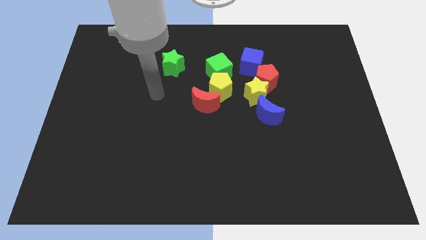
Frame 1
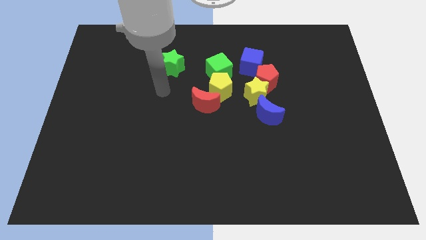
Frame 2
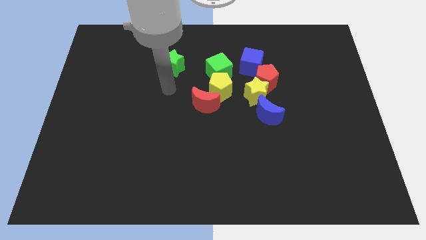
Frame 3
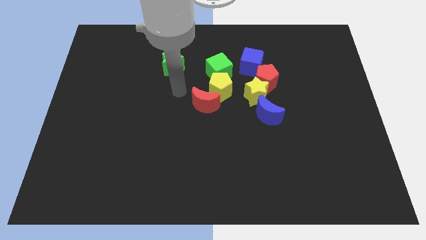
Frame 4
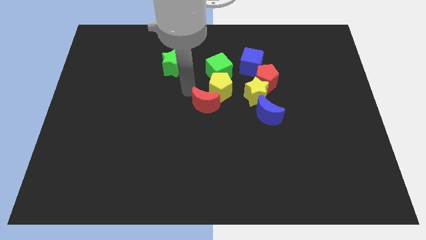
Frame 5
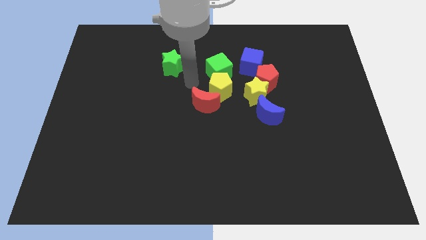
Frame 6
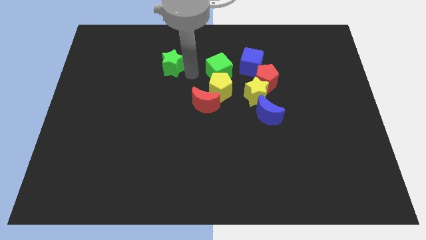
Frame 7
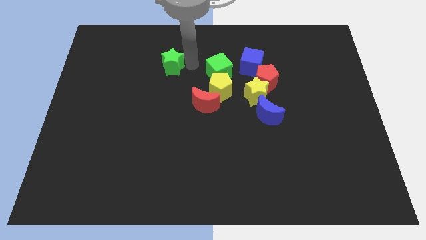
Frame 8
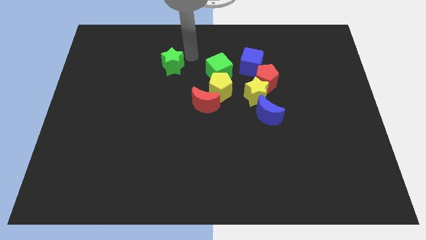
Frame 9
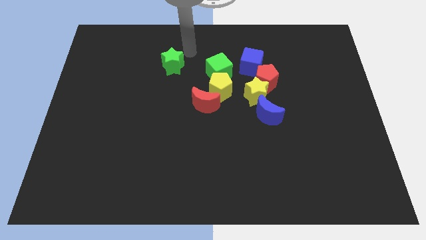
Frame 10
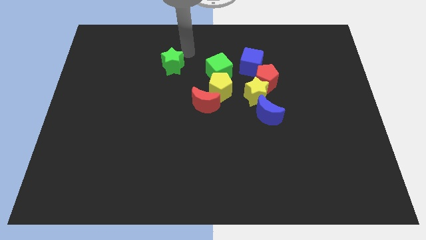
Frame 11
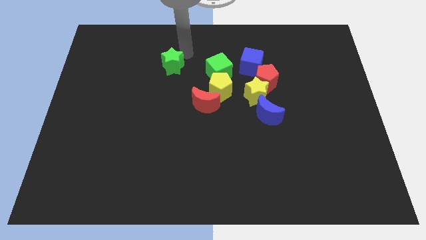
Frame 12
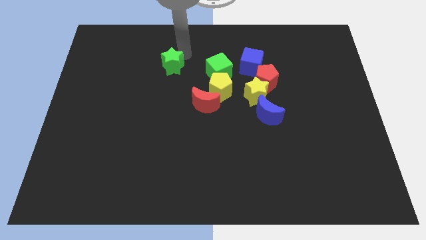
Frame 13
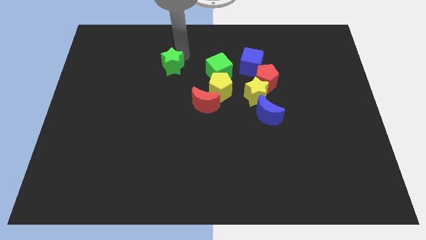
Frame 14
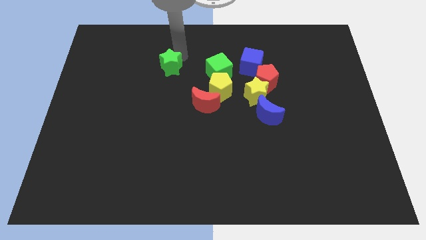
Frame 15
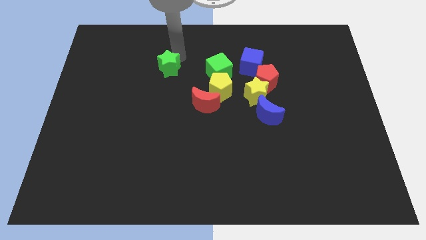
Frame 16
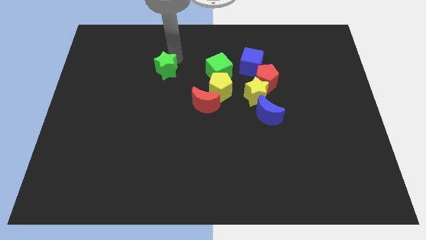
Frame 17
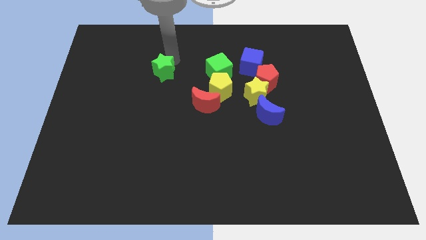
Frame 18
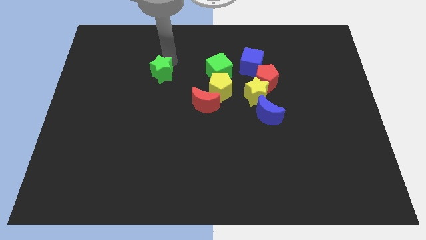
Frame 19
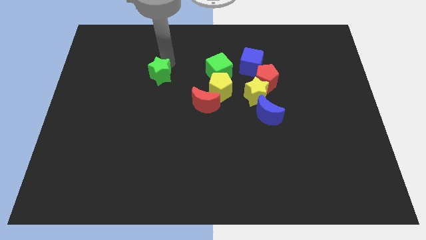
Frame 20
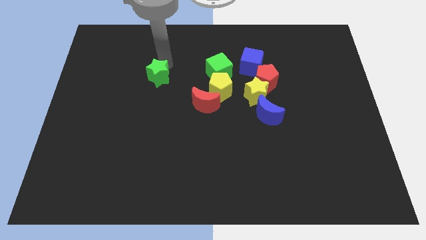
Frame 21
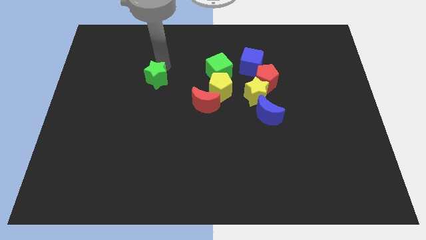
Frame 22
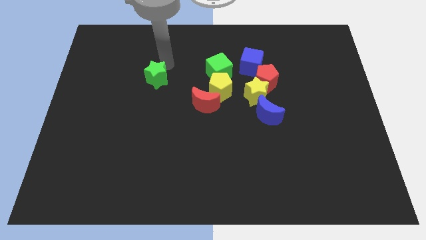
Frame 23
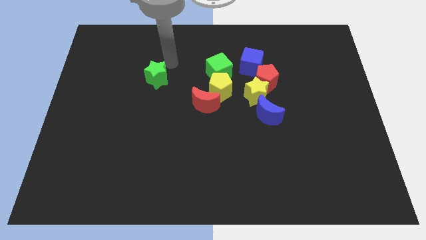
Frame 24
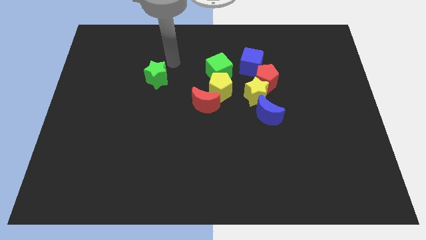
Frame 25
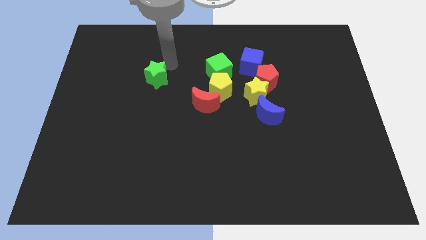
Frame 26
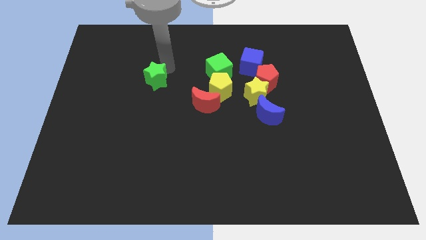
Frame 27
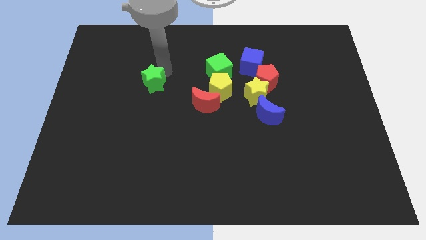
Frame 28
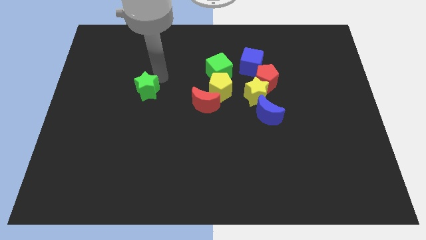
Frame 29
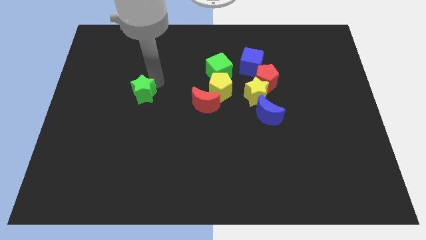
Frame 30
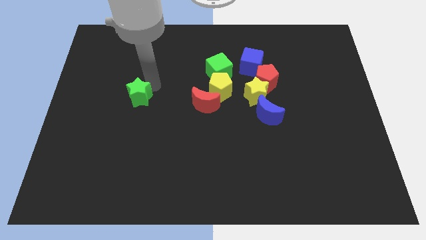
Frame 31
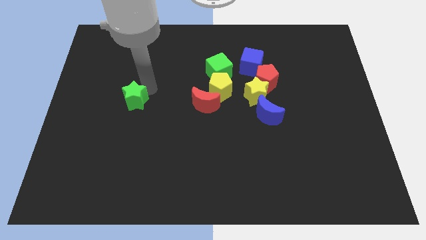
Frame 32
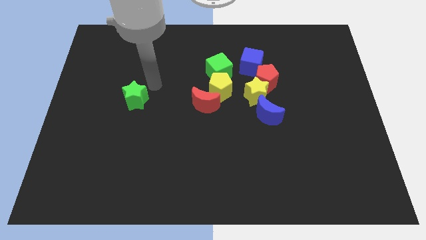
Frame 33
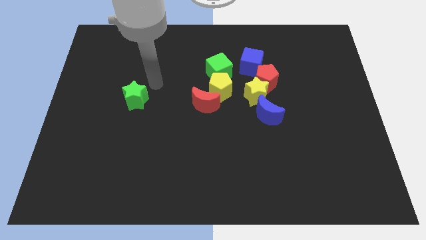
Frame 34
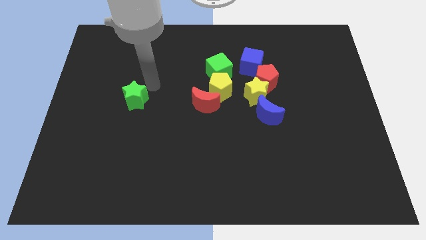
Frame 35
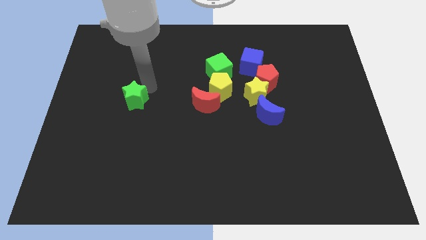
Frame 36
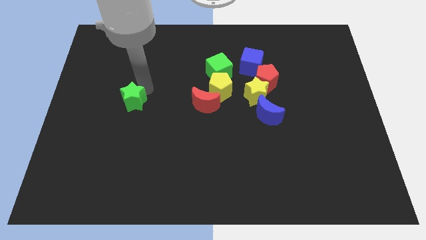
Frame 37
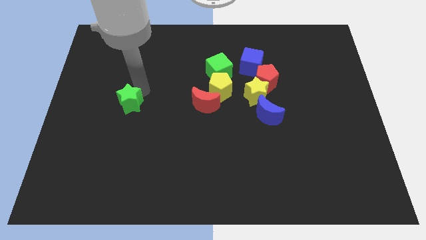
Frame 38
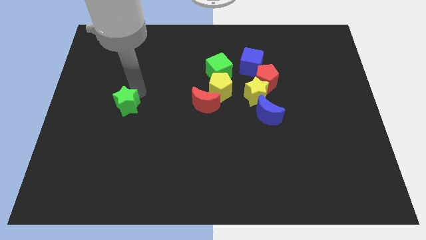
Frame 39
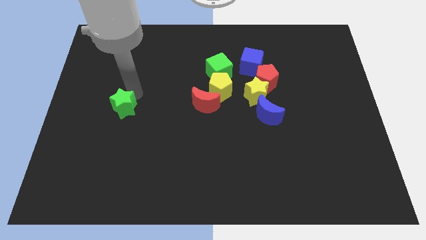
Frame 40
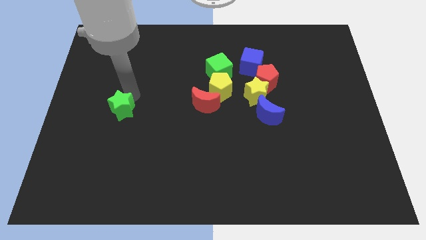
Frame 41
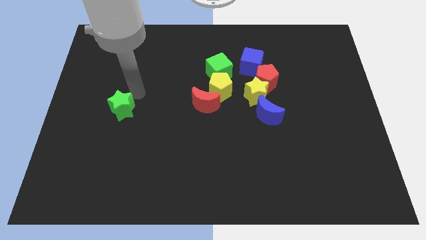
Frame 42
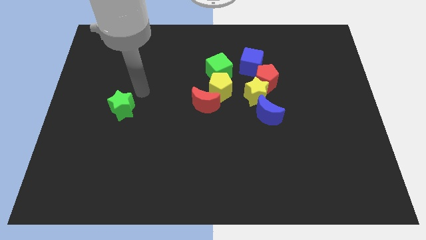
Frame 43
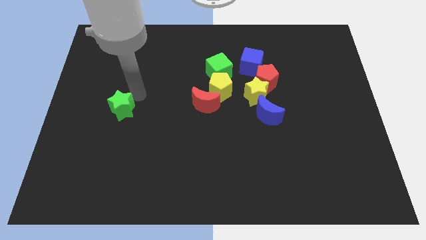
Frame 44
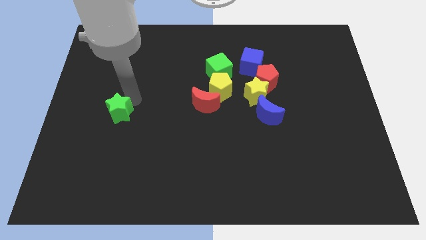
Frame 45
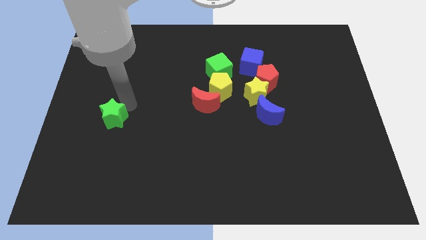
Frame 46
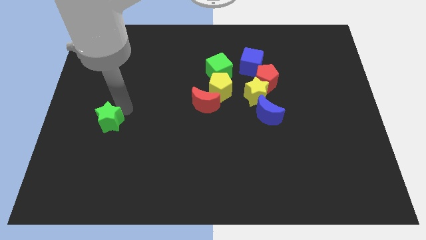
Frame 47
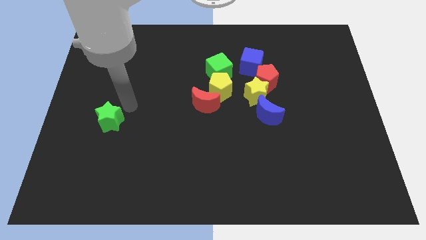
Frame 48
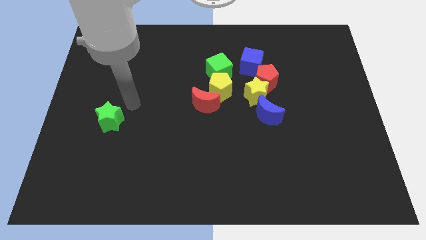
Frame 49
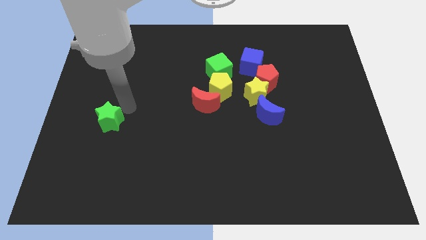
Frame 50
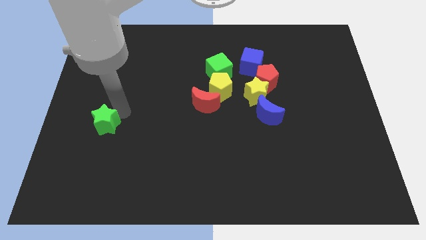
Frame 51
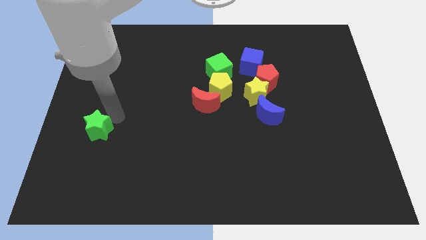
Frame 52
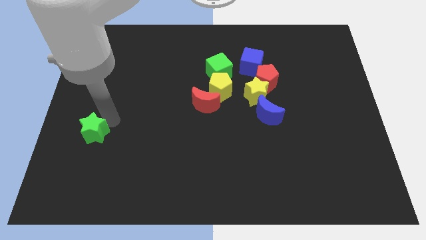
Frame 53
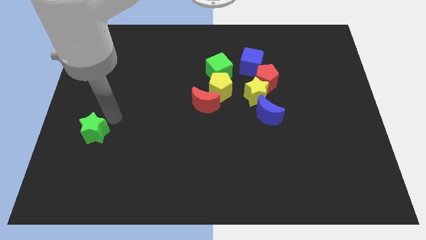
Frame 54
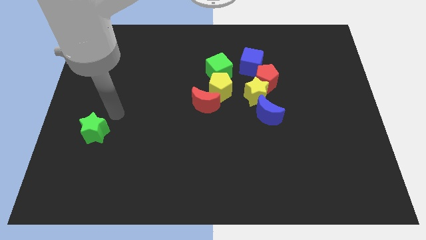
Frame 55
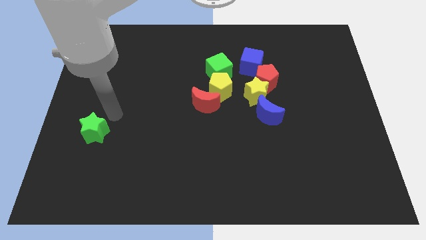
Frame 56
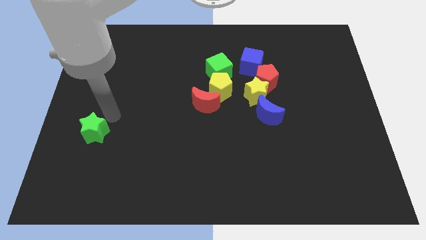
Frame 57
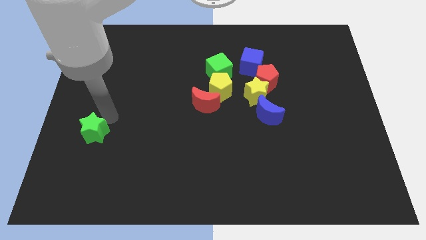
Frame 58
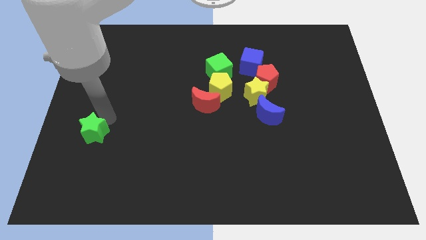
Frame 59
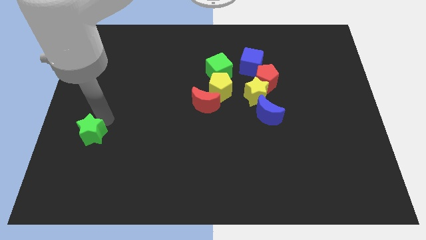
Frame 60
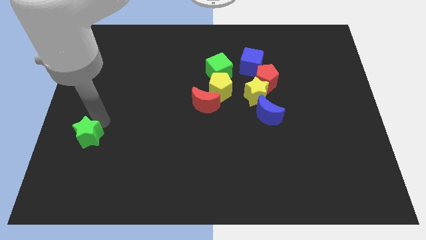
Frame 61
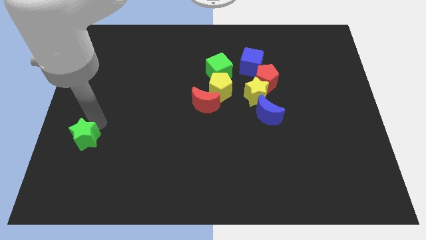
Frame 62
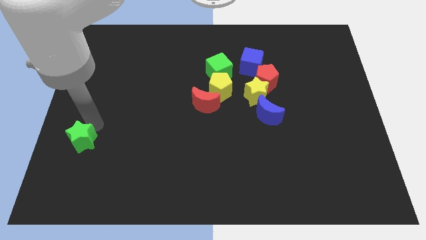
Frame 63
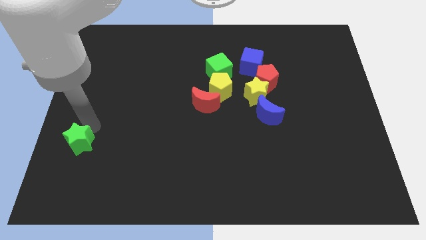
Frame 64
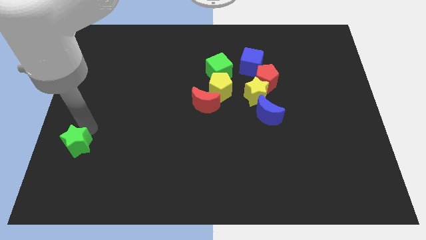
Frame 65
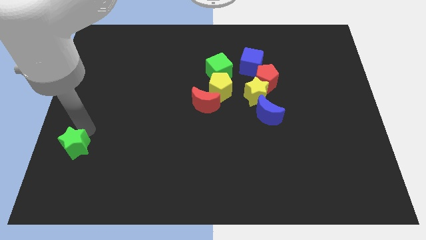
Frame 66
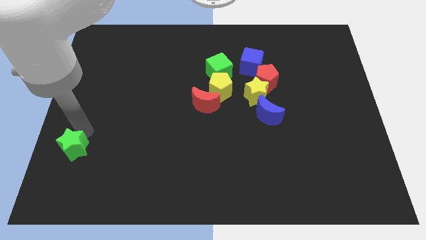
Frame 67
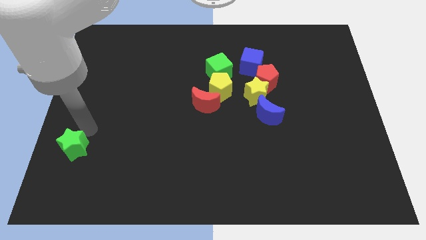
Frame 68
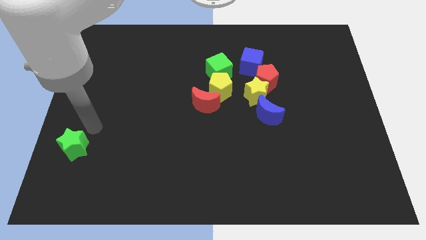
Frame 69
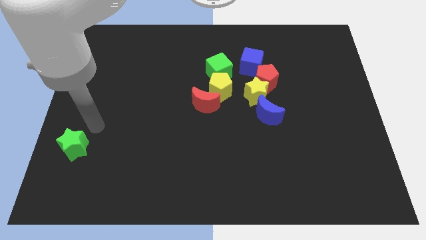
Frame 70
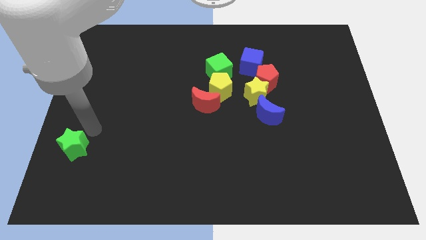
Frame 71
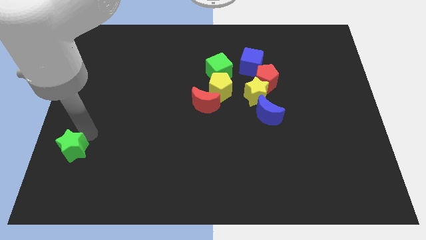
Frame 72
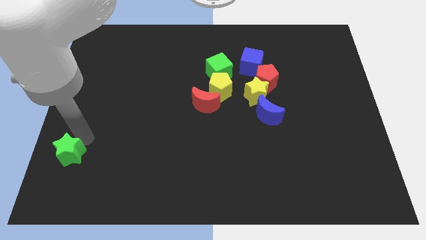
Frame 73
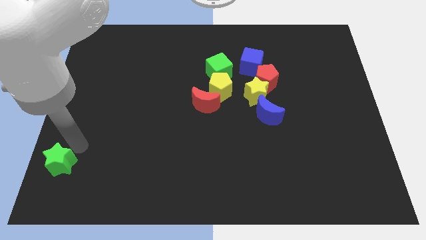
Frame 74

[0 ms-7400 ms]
slide the green star to the bottom left
